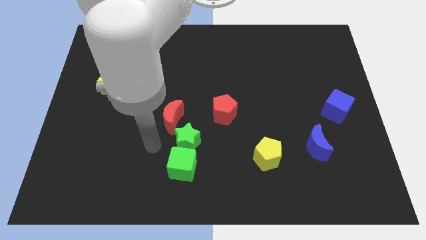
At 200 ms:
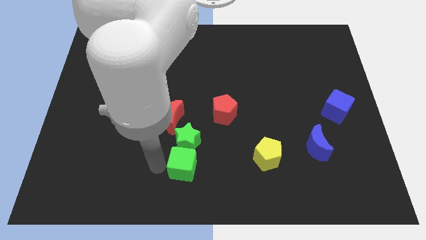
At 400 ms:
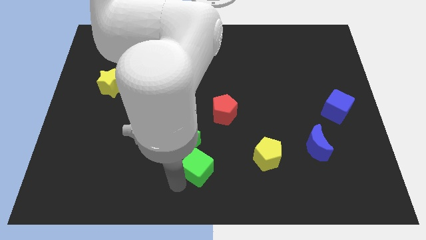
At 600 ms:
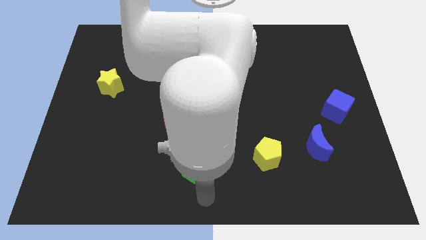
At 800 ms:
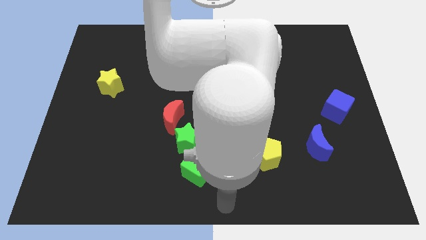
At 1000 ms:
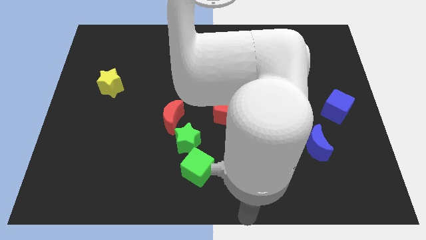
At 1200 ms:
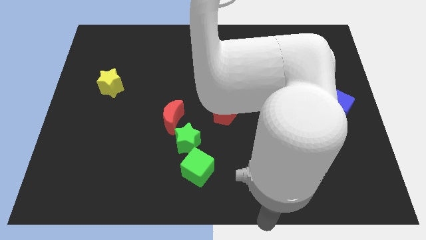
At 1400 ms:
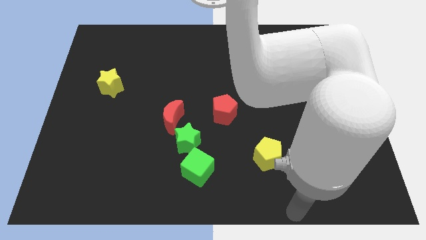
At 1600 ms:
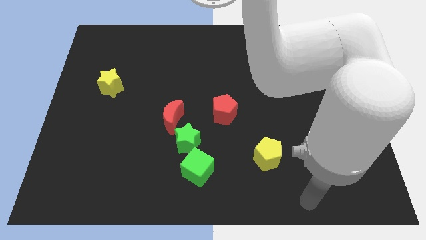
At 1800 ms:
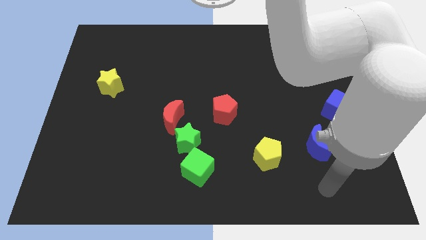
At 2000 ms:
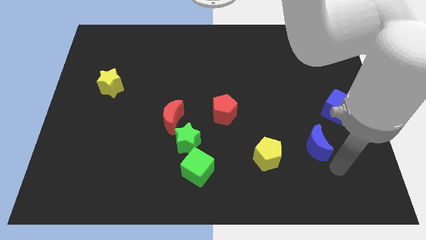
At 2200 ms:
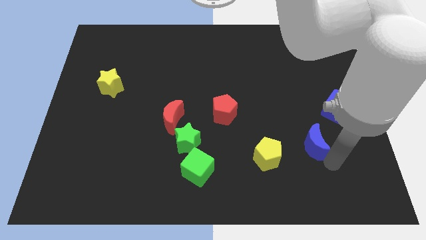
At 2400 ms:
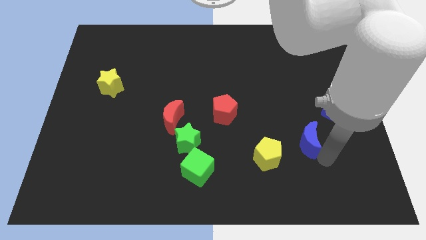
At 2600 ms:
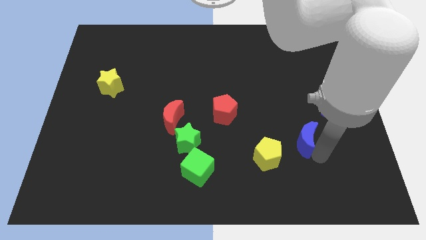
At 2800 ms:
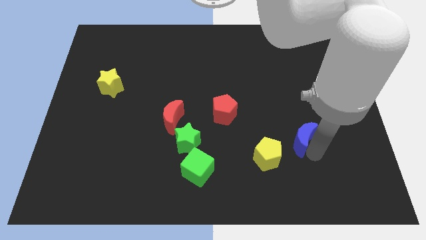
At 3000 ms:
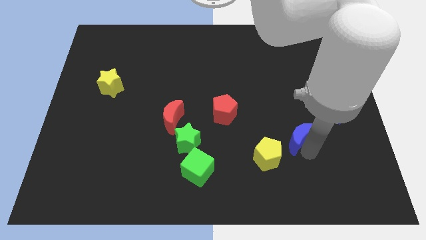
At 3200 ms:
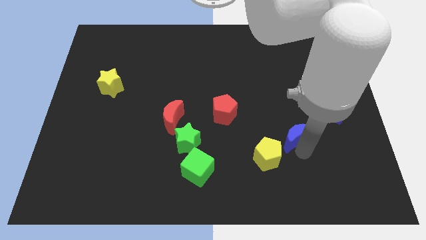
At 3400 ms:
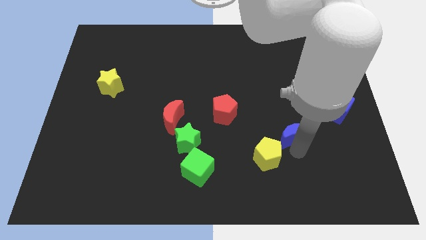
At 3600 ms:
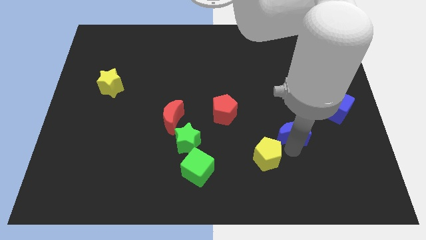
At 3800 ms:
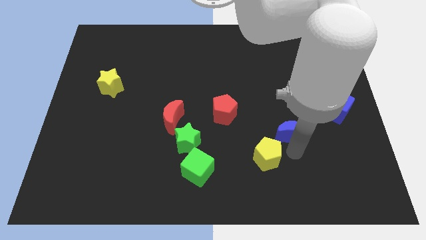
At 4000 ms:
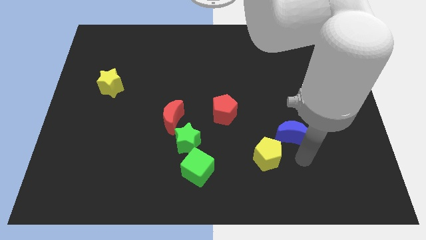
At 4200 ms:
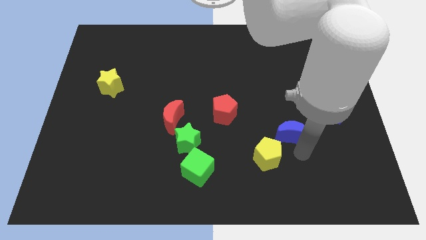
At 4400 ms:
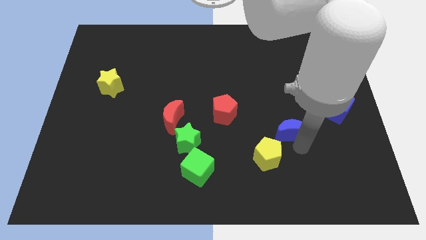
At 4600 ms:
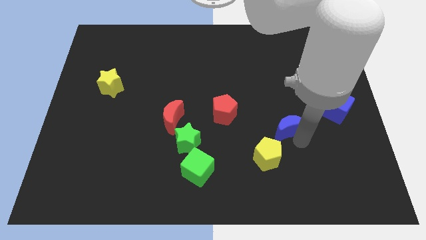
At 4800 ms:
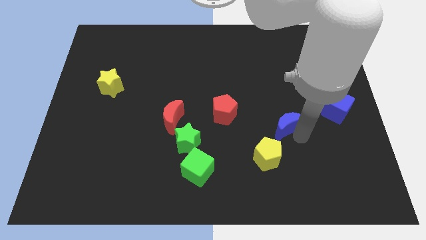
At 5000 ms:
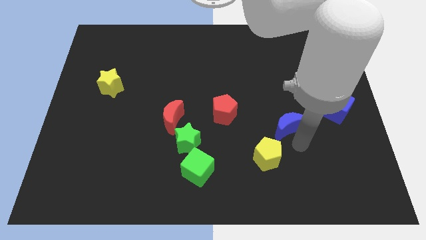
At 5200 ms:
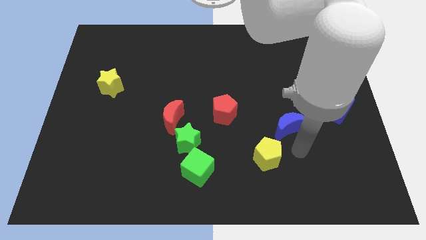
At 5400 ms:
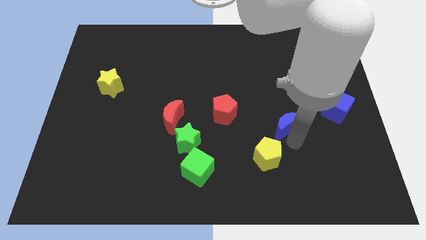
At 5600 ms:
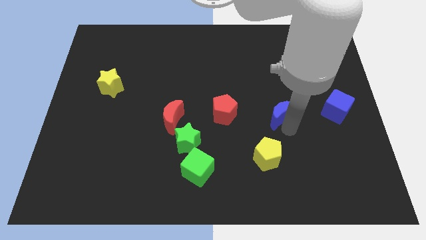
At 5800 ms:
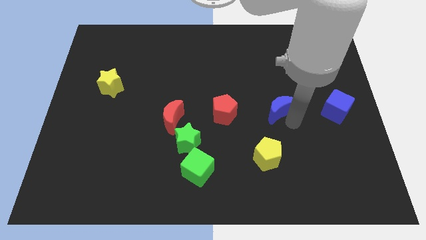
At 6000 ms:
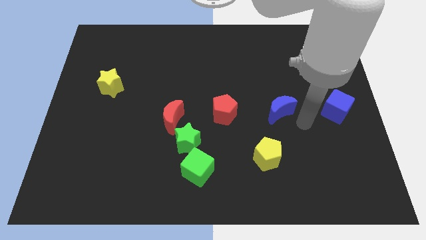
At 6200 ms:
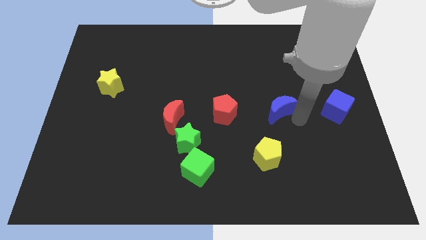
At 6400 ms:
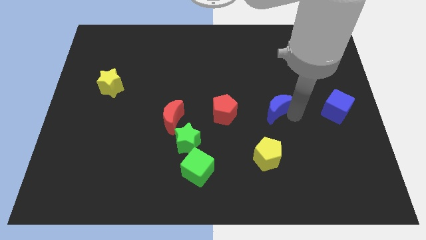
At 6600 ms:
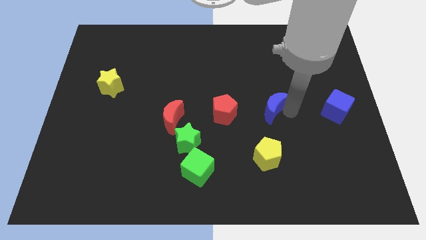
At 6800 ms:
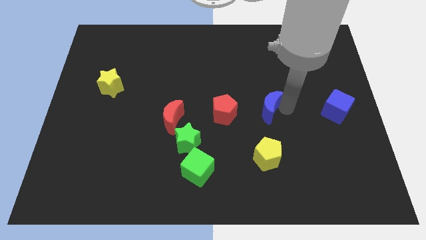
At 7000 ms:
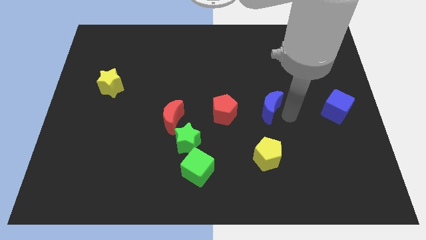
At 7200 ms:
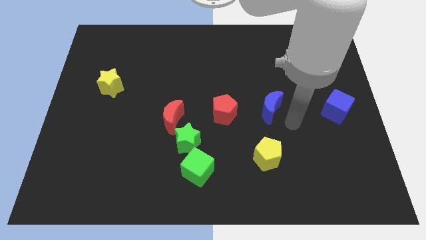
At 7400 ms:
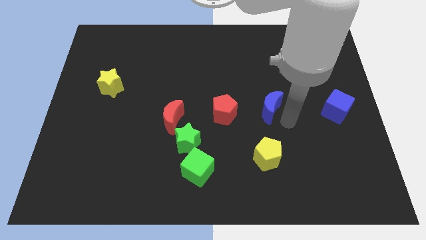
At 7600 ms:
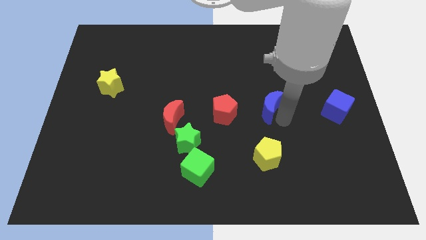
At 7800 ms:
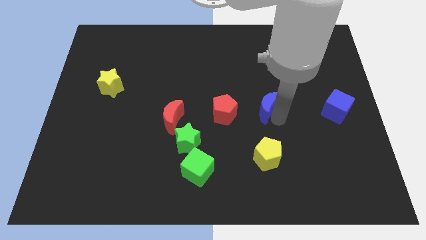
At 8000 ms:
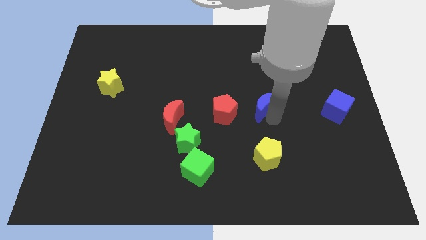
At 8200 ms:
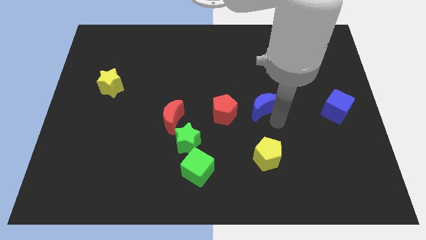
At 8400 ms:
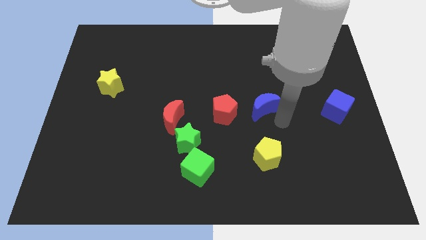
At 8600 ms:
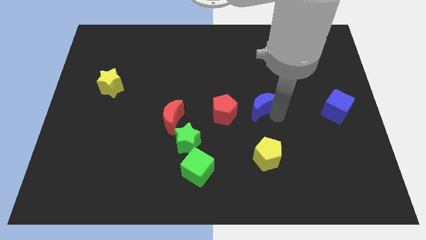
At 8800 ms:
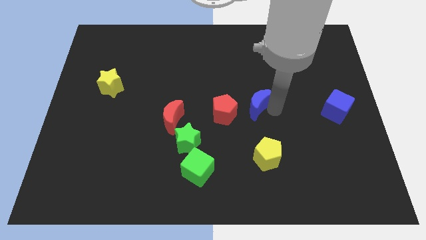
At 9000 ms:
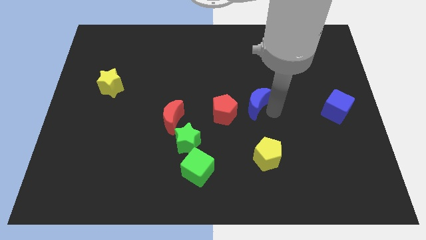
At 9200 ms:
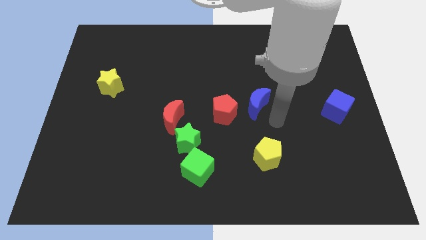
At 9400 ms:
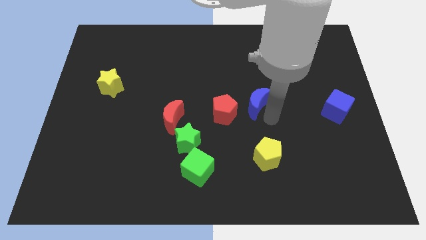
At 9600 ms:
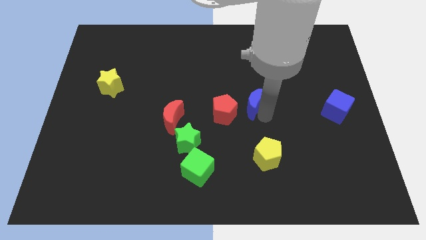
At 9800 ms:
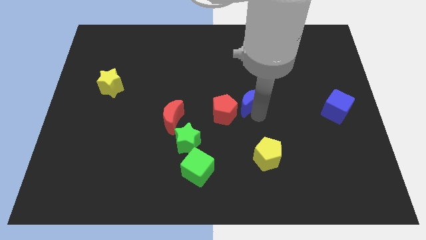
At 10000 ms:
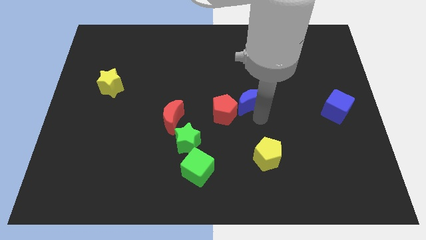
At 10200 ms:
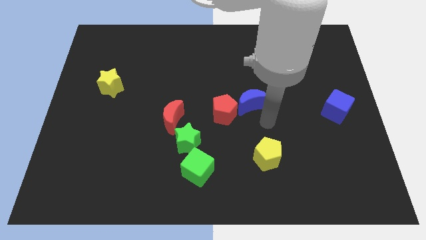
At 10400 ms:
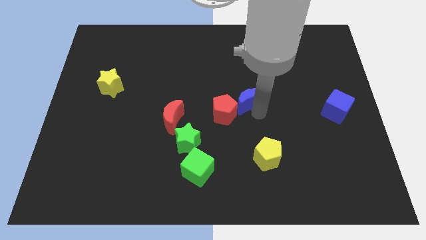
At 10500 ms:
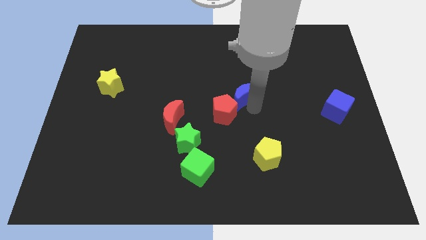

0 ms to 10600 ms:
put the blue moon above the red pentagon

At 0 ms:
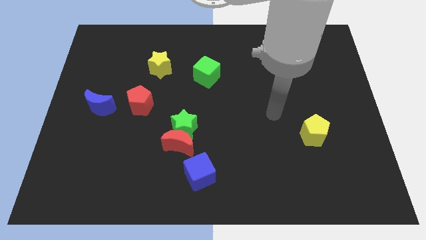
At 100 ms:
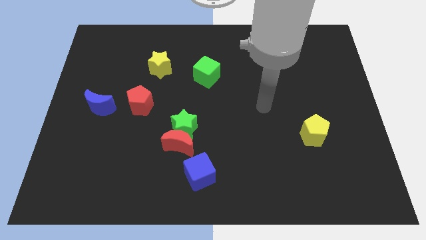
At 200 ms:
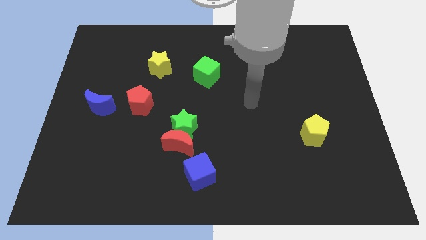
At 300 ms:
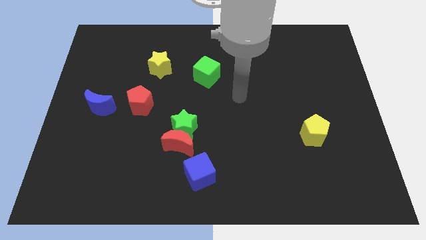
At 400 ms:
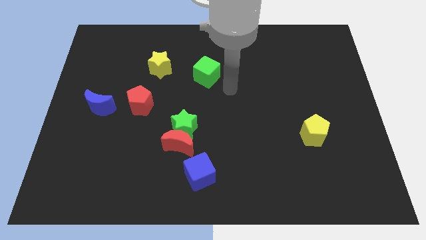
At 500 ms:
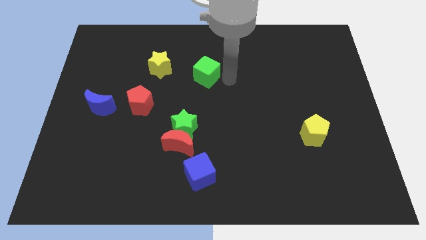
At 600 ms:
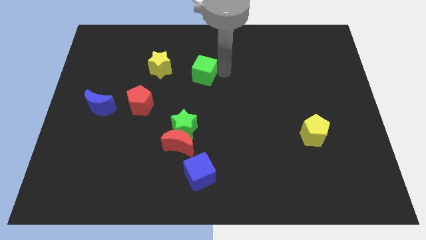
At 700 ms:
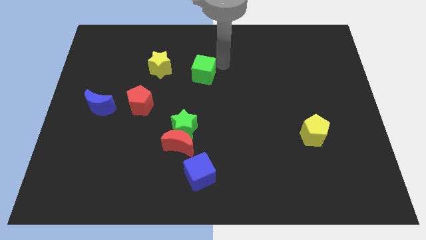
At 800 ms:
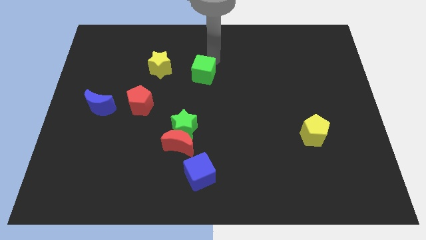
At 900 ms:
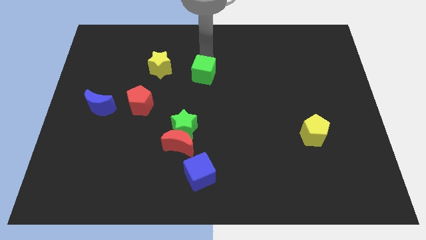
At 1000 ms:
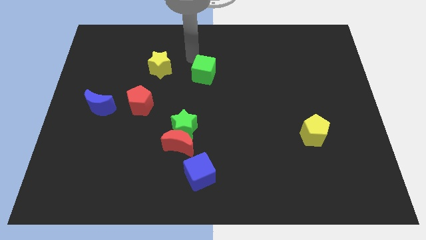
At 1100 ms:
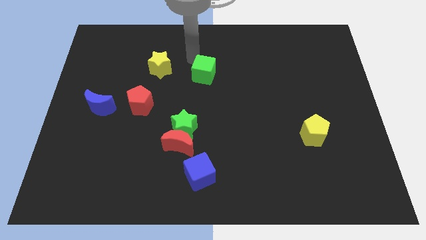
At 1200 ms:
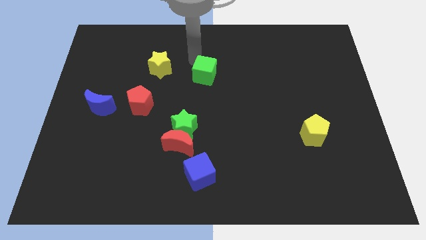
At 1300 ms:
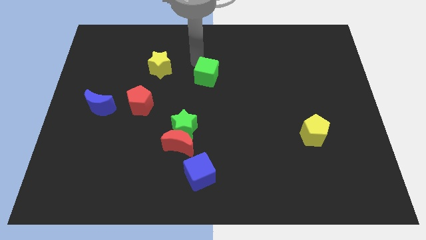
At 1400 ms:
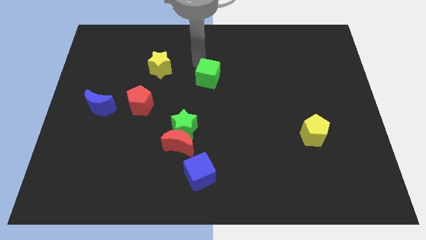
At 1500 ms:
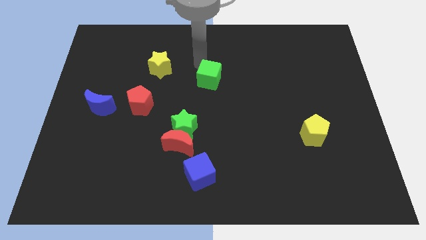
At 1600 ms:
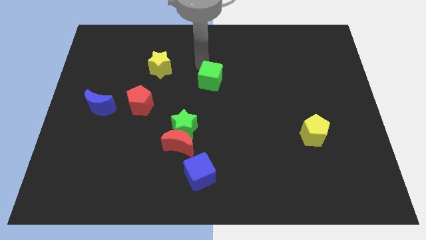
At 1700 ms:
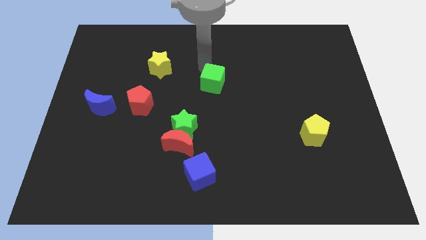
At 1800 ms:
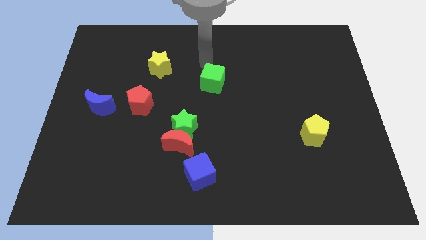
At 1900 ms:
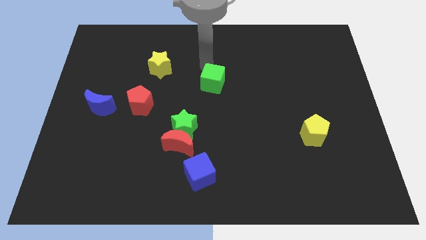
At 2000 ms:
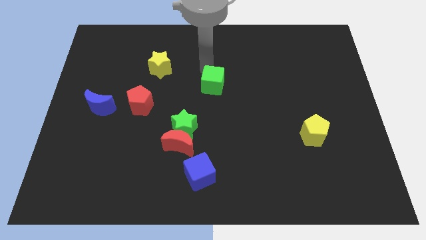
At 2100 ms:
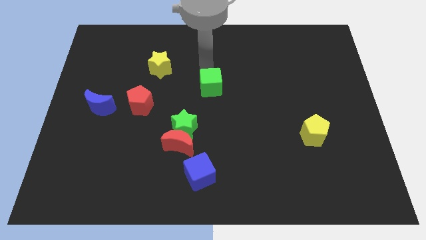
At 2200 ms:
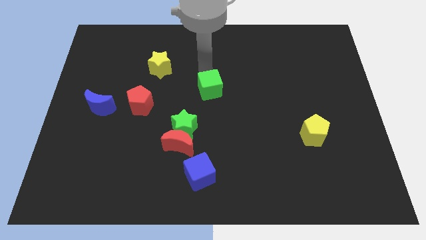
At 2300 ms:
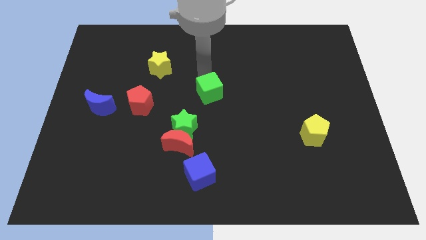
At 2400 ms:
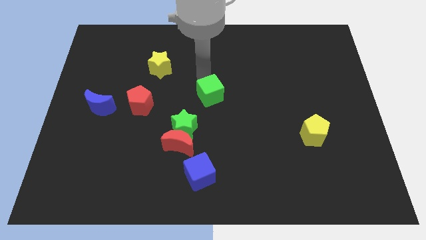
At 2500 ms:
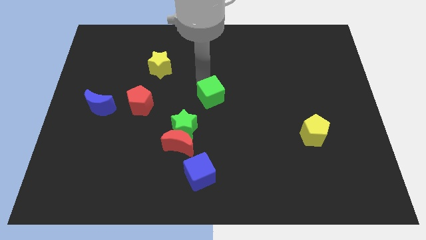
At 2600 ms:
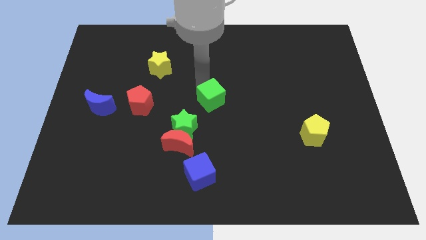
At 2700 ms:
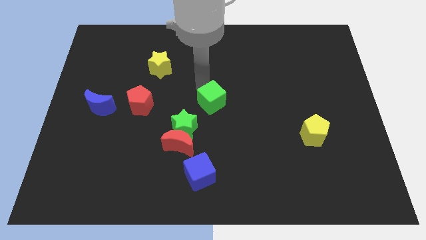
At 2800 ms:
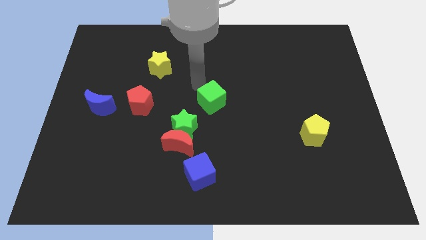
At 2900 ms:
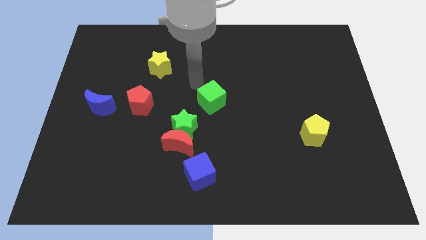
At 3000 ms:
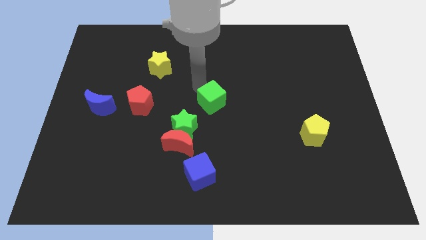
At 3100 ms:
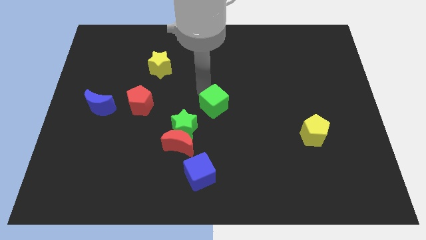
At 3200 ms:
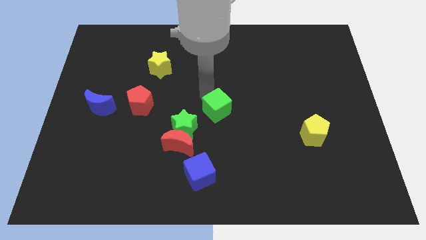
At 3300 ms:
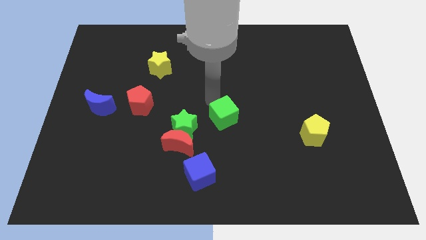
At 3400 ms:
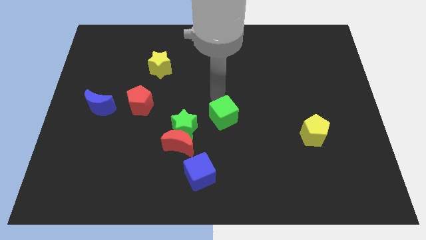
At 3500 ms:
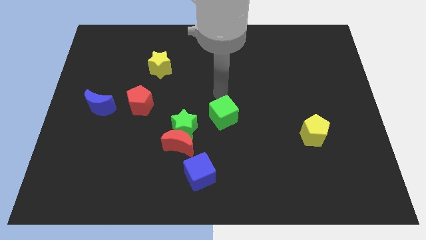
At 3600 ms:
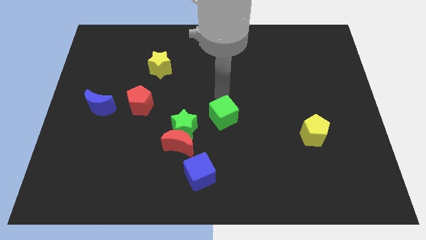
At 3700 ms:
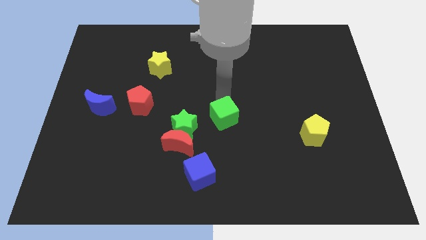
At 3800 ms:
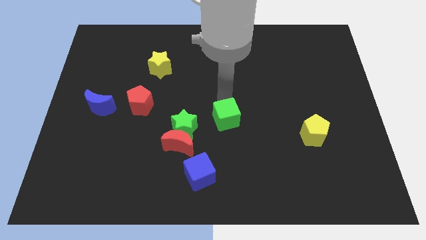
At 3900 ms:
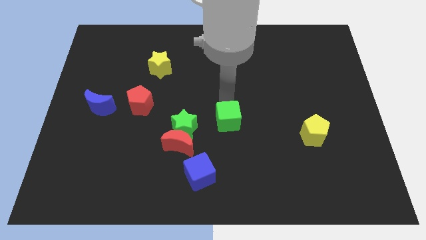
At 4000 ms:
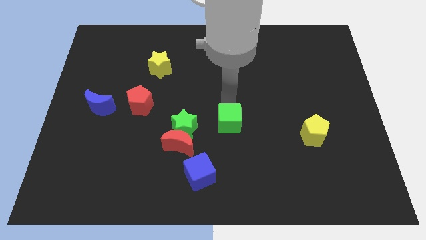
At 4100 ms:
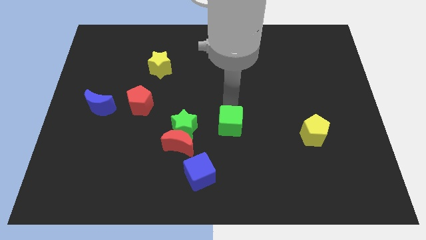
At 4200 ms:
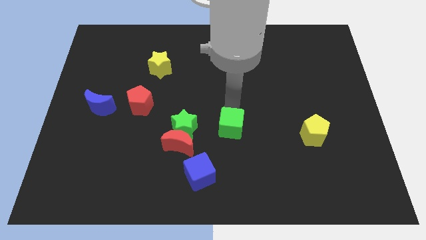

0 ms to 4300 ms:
push the green cube just right of the red moon
